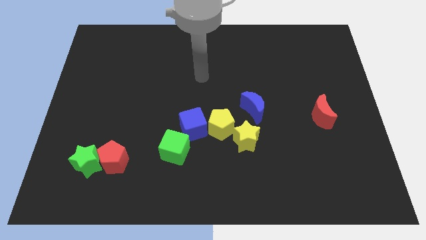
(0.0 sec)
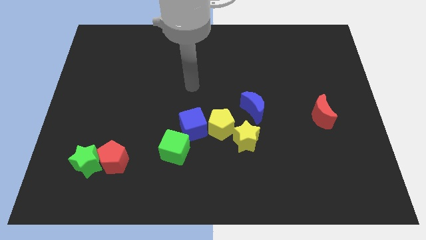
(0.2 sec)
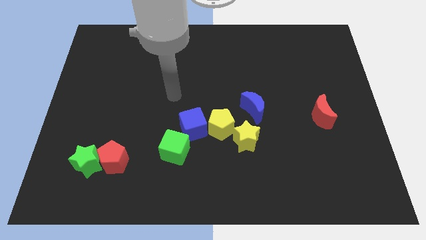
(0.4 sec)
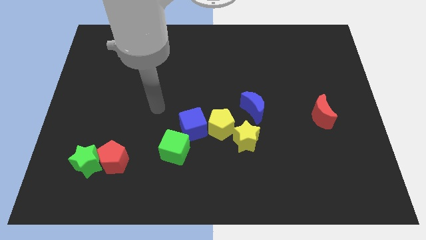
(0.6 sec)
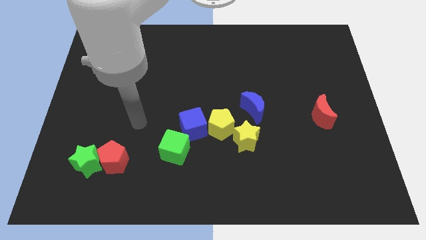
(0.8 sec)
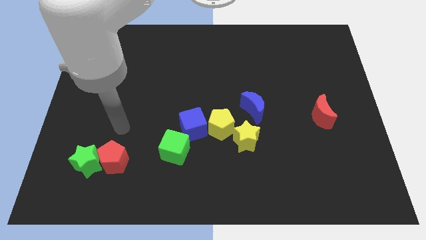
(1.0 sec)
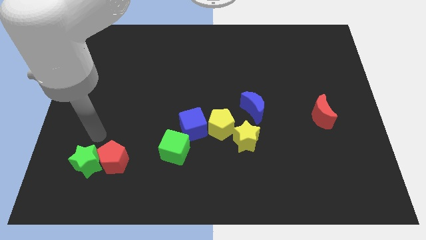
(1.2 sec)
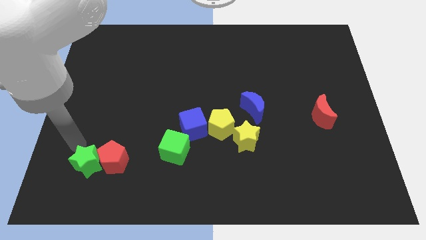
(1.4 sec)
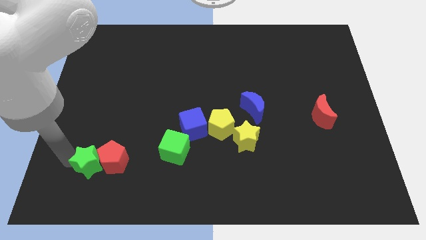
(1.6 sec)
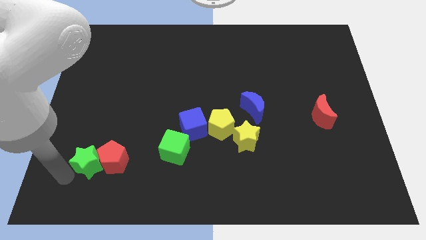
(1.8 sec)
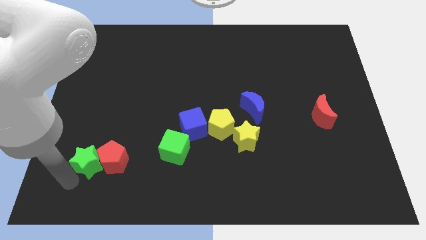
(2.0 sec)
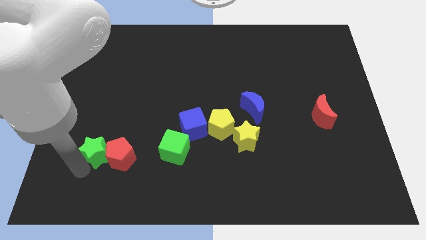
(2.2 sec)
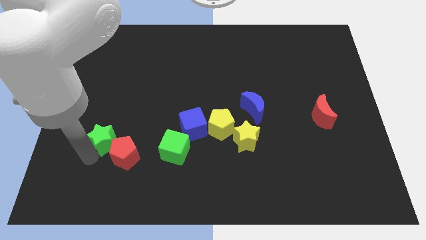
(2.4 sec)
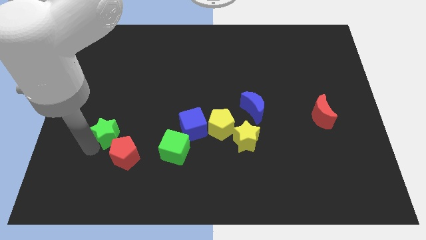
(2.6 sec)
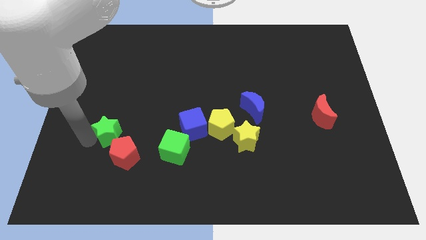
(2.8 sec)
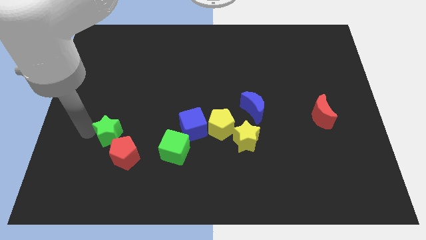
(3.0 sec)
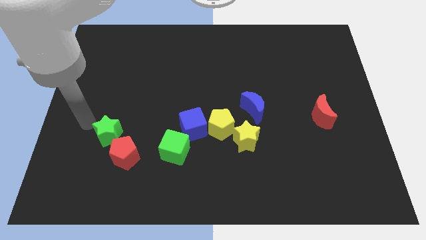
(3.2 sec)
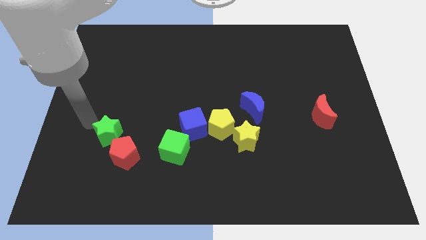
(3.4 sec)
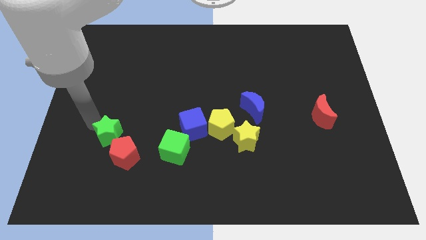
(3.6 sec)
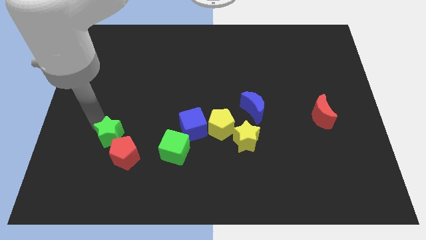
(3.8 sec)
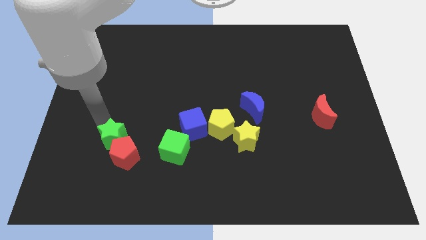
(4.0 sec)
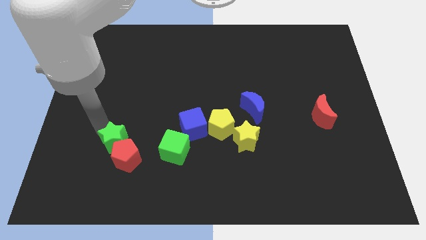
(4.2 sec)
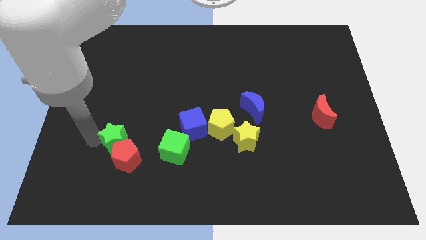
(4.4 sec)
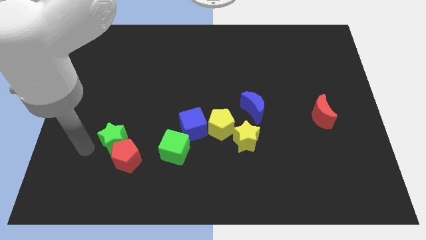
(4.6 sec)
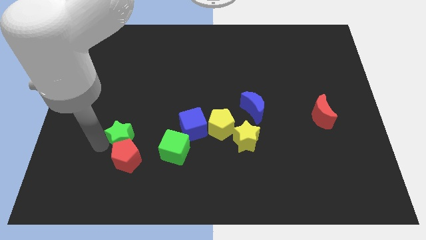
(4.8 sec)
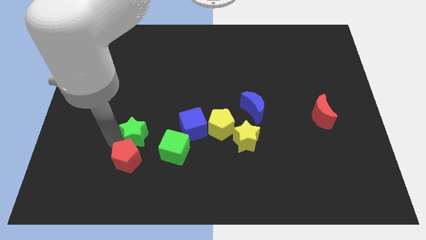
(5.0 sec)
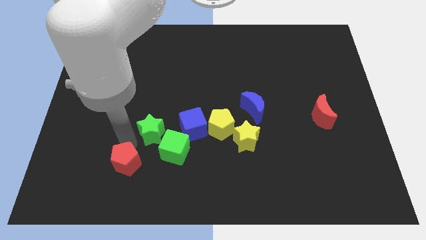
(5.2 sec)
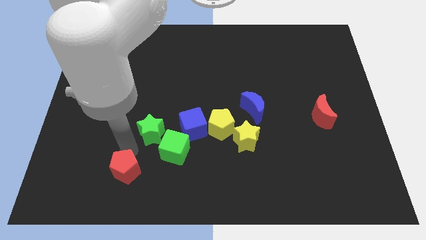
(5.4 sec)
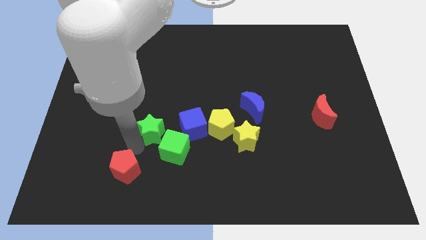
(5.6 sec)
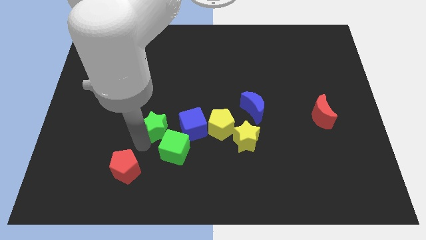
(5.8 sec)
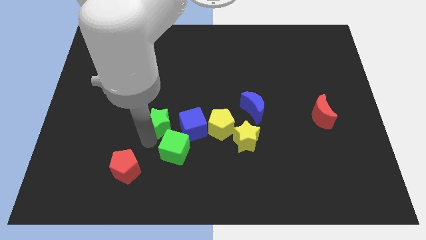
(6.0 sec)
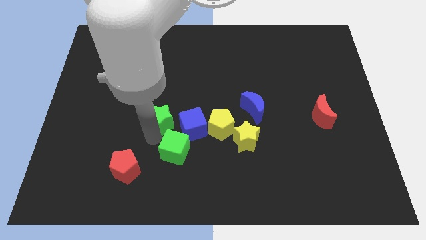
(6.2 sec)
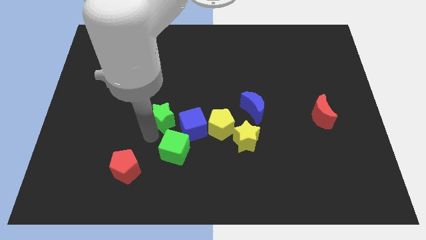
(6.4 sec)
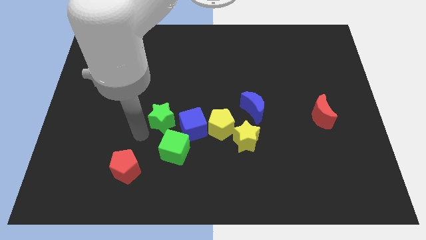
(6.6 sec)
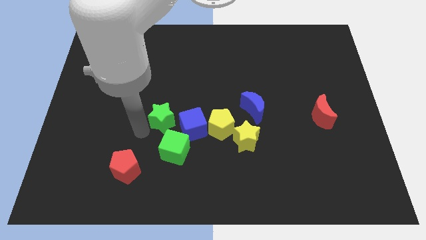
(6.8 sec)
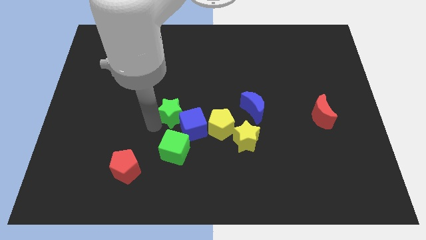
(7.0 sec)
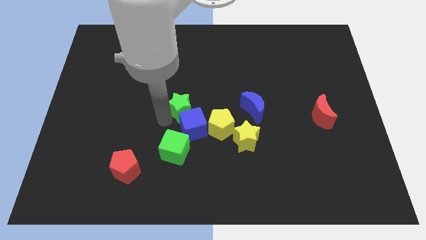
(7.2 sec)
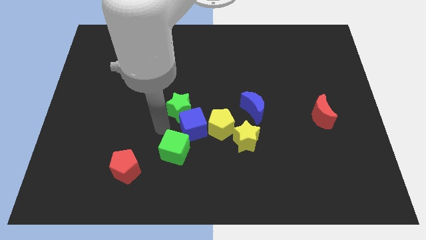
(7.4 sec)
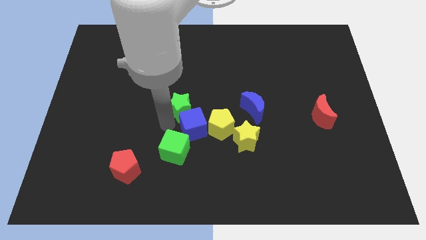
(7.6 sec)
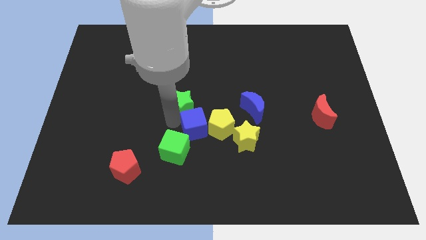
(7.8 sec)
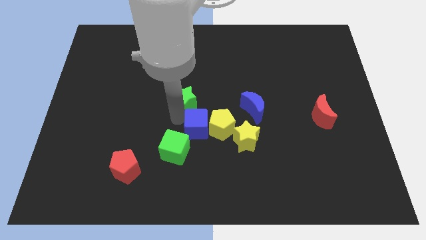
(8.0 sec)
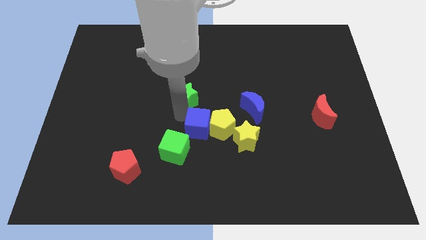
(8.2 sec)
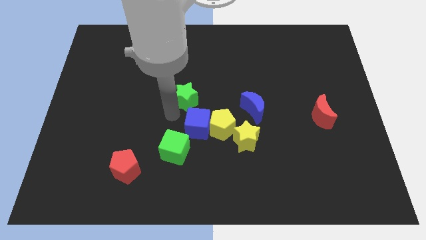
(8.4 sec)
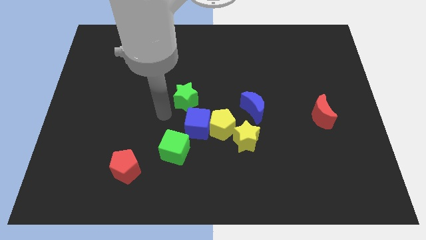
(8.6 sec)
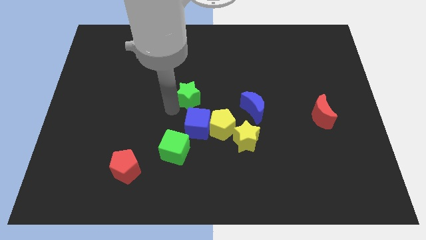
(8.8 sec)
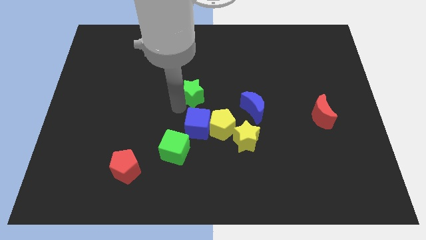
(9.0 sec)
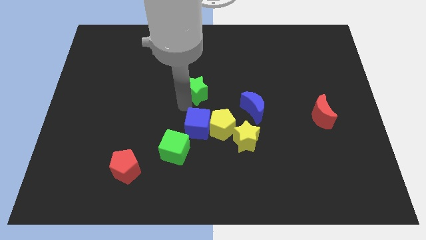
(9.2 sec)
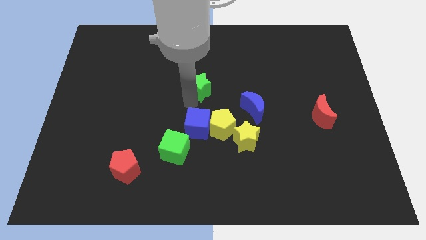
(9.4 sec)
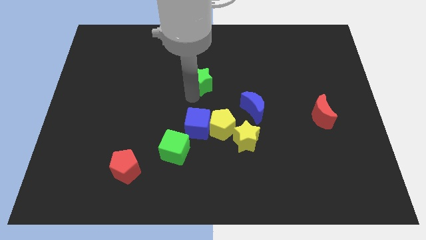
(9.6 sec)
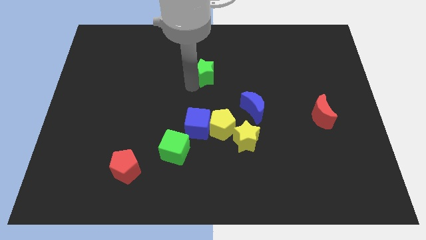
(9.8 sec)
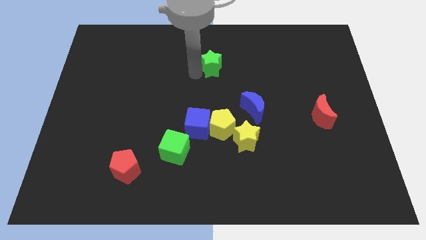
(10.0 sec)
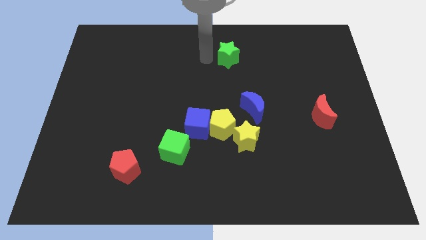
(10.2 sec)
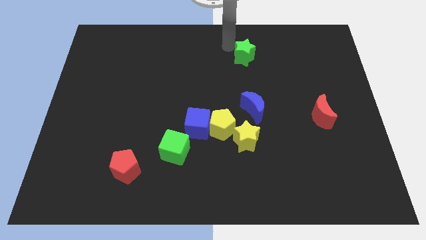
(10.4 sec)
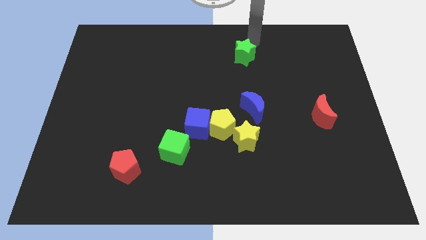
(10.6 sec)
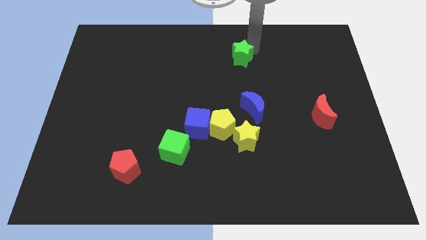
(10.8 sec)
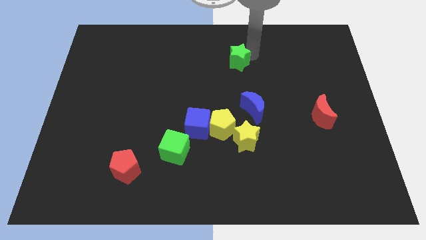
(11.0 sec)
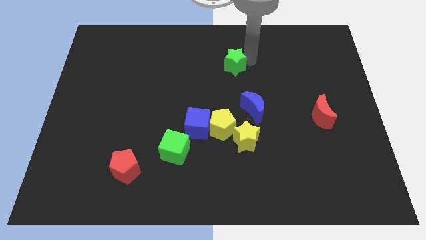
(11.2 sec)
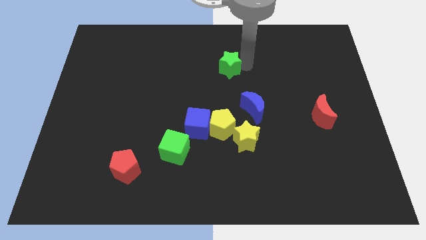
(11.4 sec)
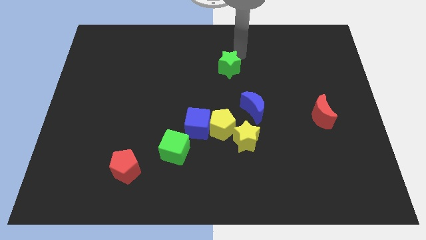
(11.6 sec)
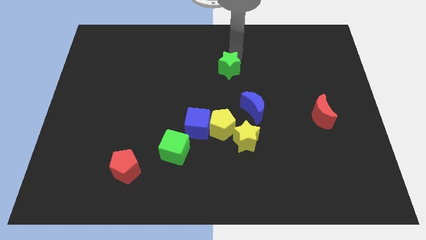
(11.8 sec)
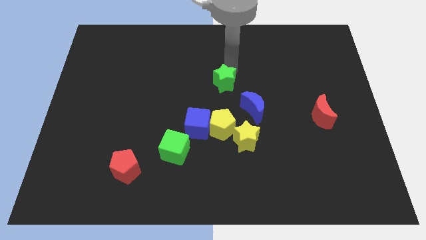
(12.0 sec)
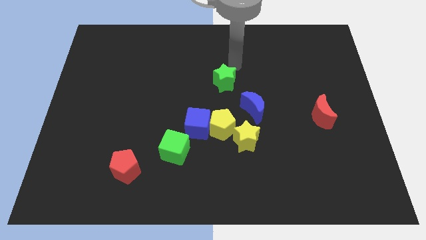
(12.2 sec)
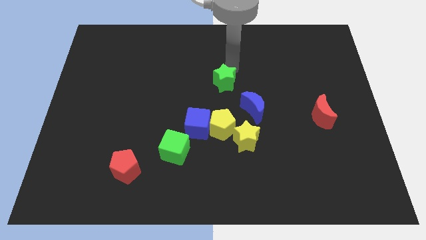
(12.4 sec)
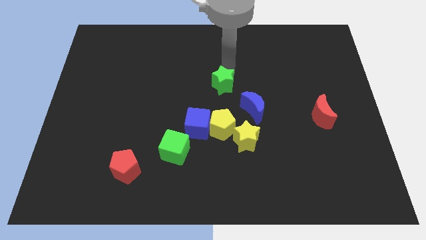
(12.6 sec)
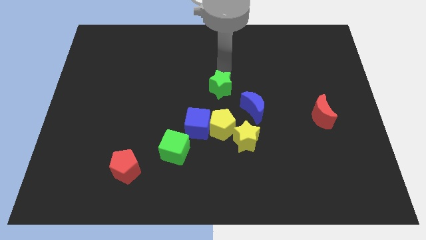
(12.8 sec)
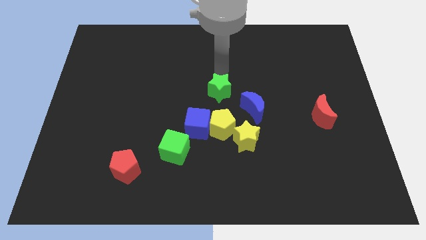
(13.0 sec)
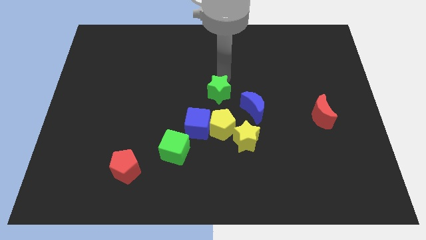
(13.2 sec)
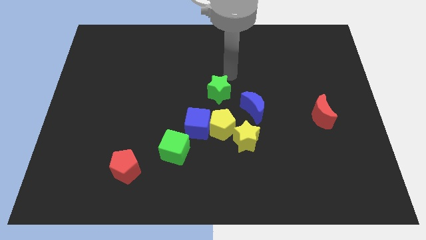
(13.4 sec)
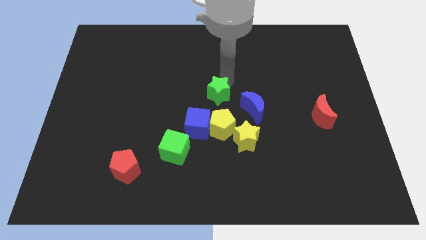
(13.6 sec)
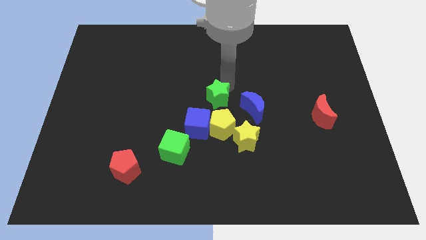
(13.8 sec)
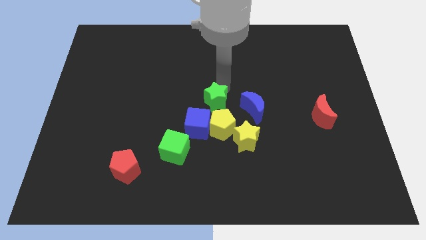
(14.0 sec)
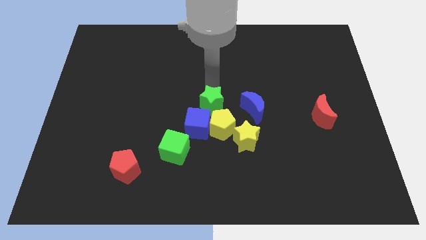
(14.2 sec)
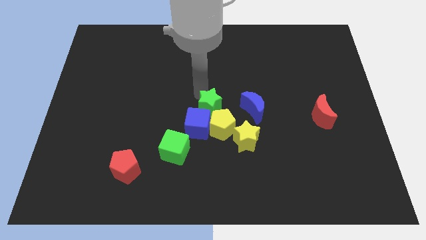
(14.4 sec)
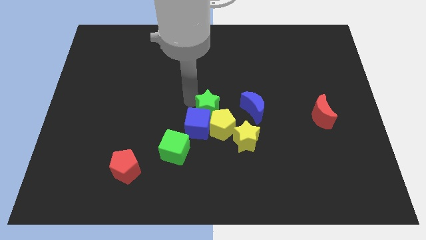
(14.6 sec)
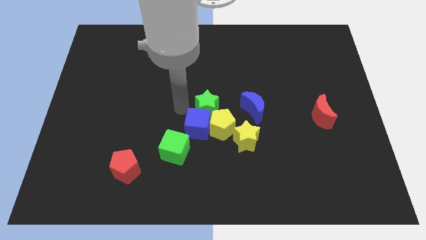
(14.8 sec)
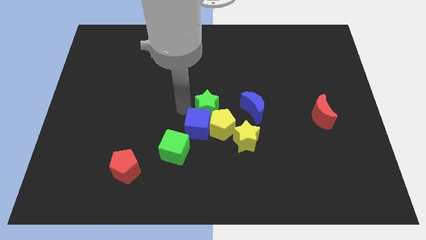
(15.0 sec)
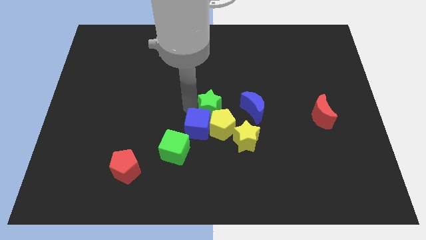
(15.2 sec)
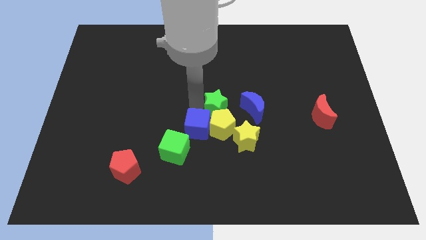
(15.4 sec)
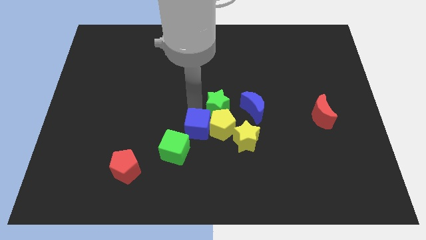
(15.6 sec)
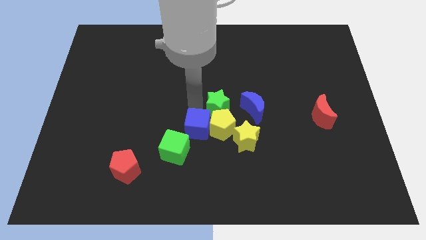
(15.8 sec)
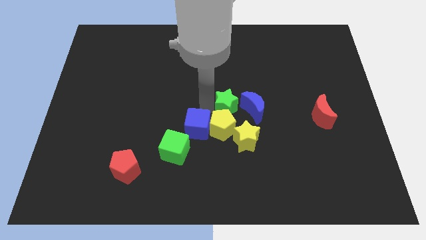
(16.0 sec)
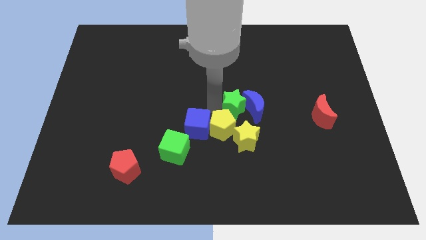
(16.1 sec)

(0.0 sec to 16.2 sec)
push the green star towards the blue moon

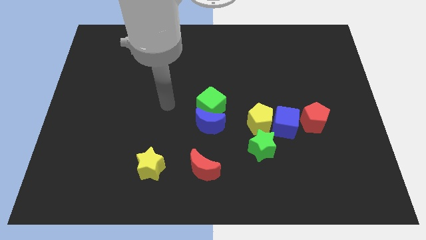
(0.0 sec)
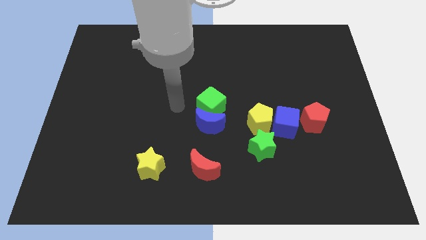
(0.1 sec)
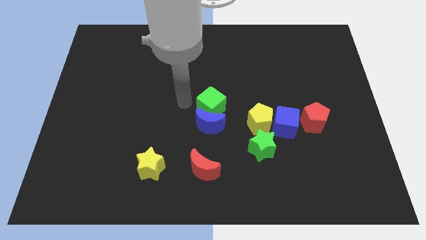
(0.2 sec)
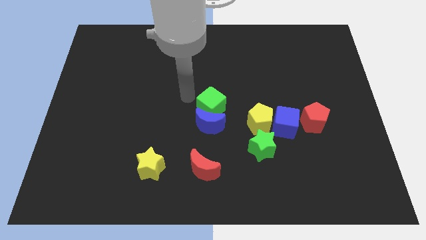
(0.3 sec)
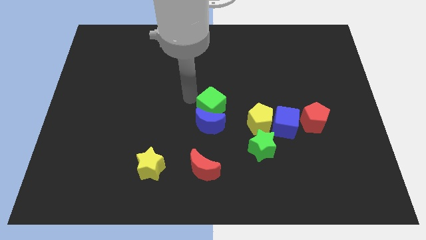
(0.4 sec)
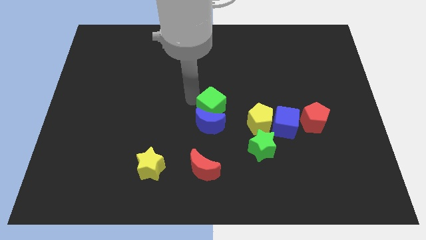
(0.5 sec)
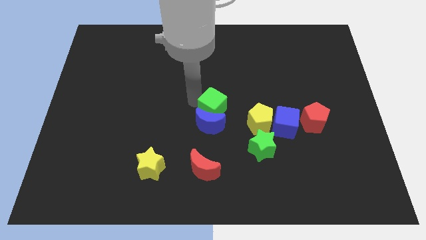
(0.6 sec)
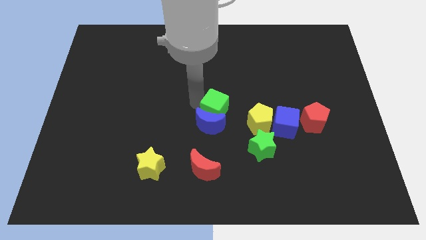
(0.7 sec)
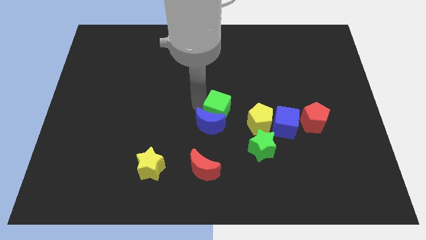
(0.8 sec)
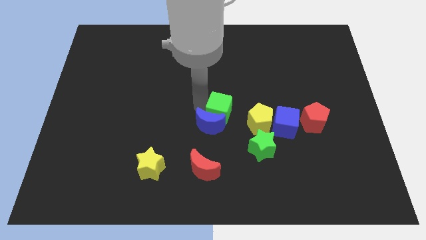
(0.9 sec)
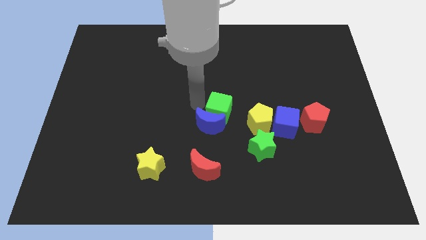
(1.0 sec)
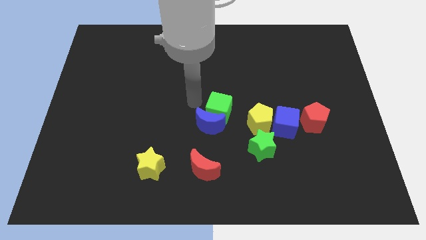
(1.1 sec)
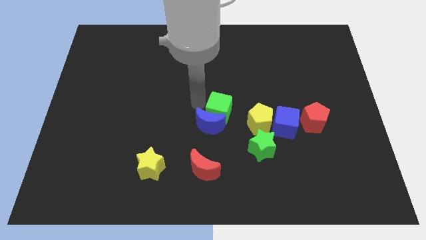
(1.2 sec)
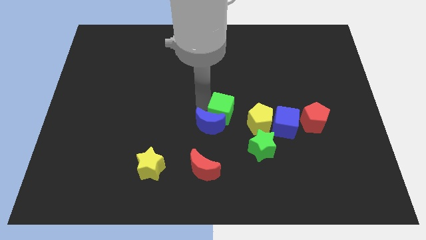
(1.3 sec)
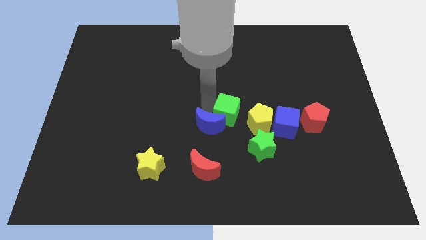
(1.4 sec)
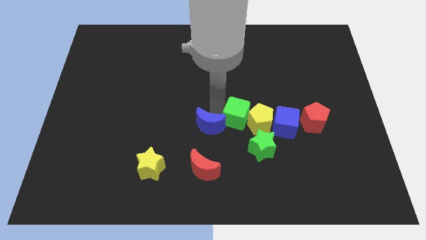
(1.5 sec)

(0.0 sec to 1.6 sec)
put the green cube to the yellow pentagon
